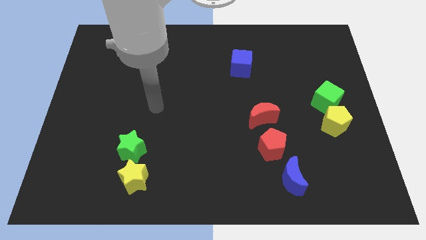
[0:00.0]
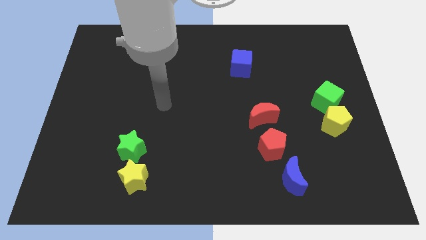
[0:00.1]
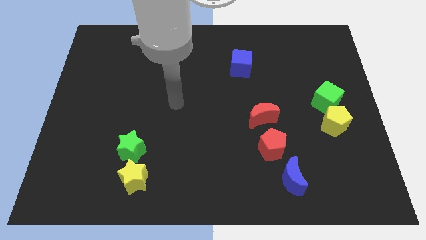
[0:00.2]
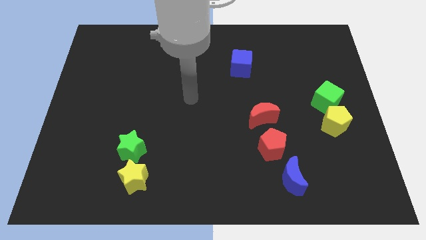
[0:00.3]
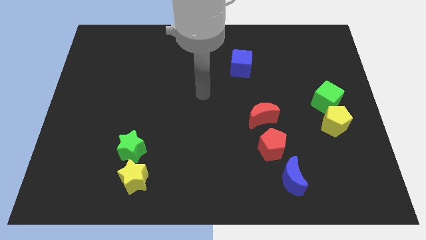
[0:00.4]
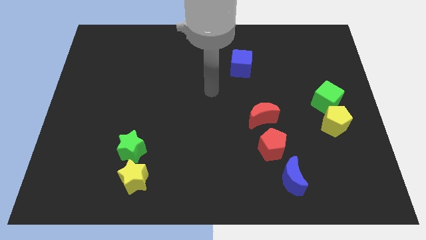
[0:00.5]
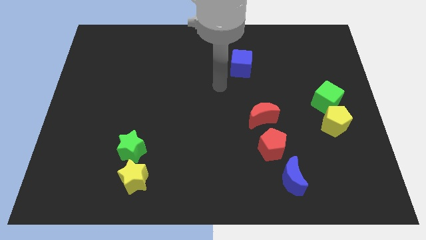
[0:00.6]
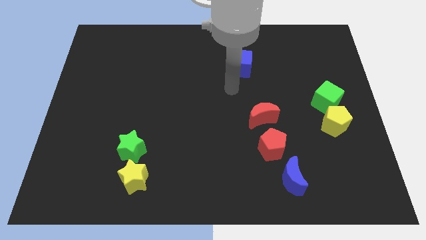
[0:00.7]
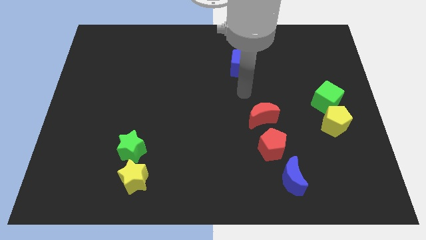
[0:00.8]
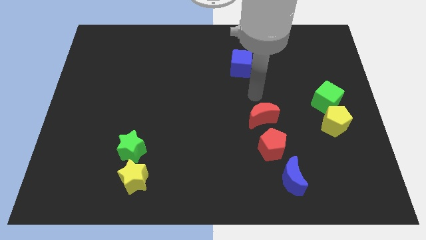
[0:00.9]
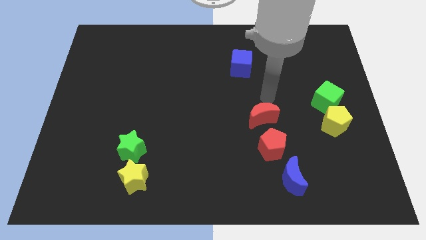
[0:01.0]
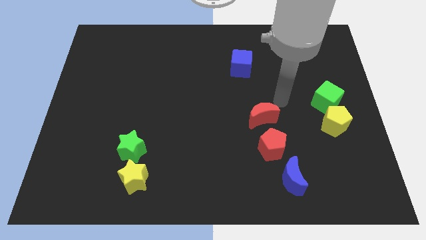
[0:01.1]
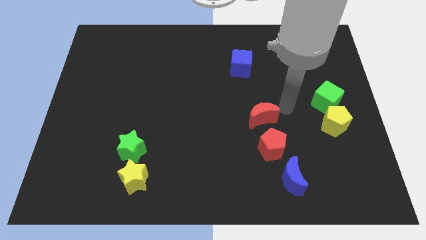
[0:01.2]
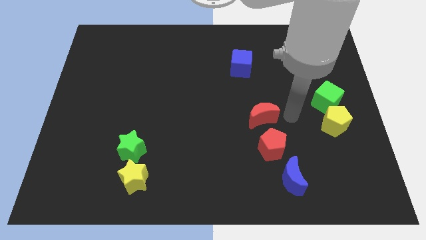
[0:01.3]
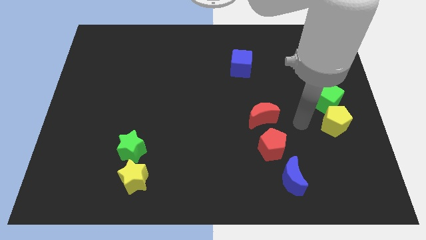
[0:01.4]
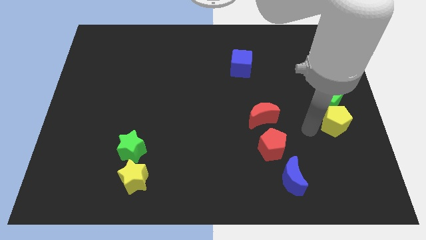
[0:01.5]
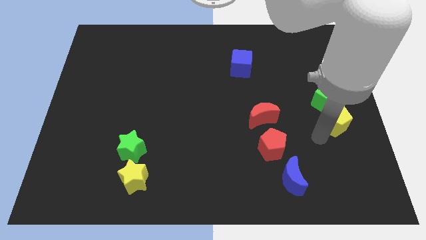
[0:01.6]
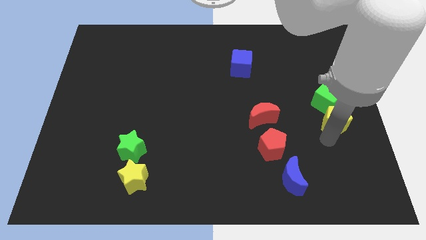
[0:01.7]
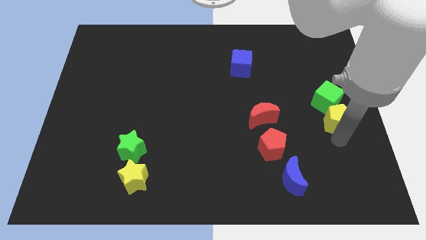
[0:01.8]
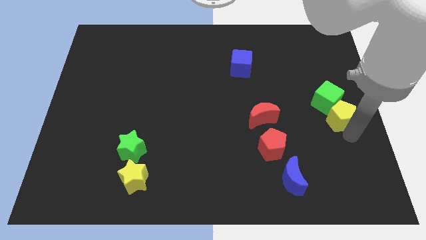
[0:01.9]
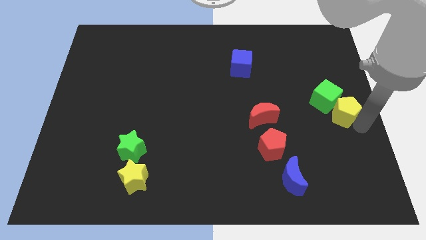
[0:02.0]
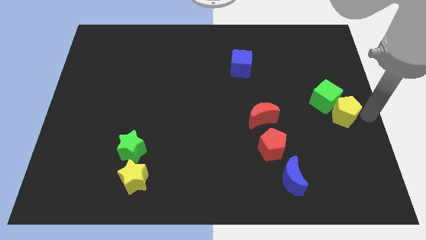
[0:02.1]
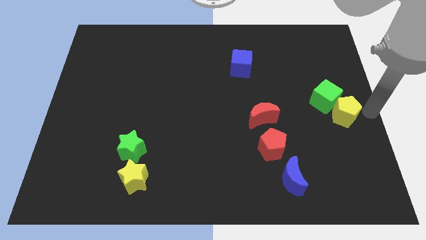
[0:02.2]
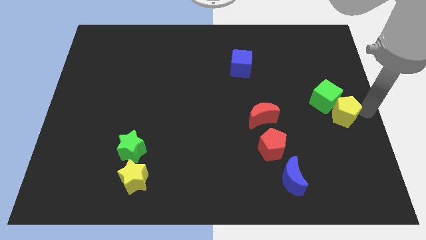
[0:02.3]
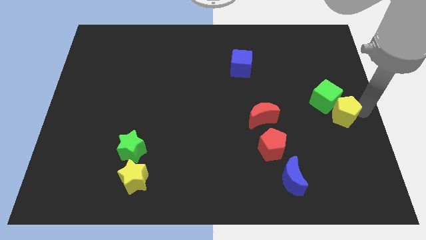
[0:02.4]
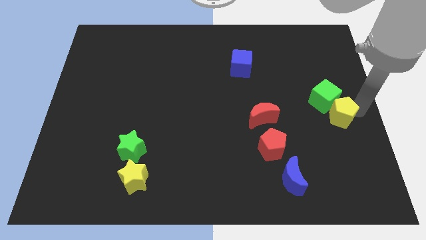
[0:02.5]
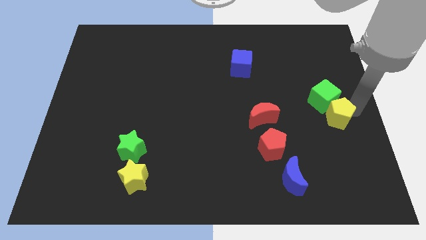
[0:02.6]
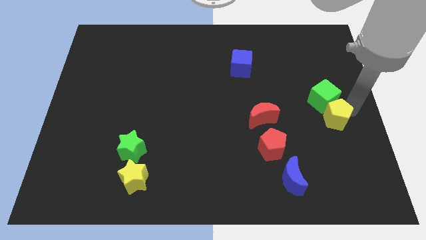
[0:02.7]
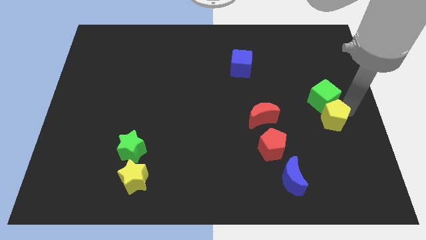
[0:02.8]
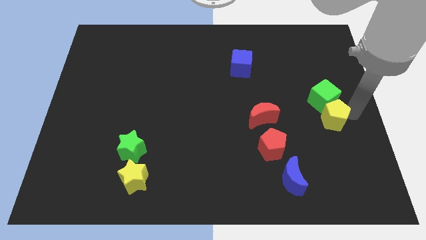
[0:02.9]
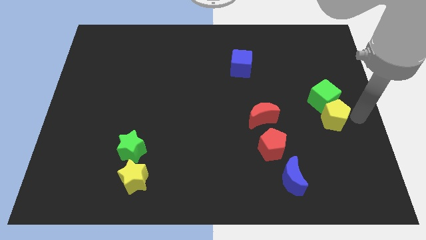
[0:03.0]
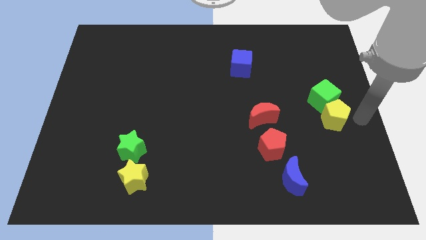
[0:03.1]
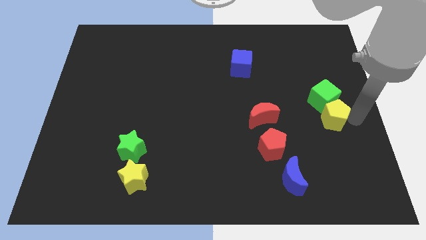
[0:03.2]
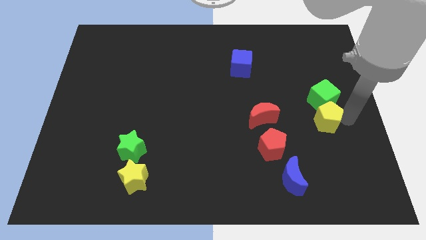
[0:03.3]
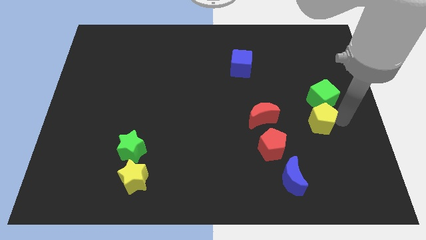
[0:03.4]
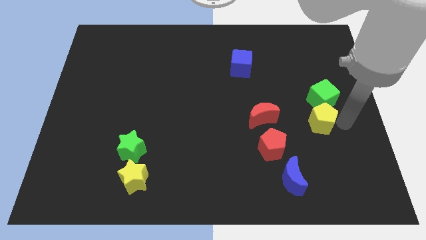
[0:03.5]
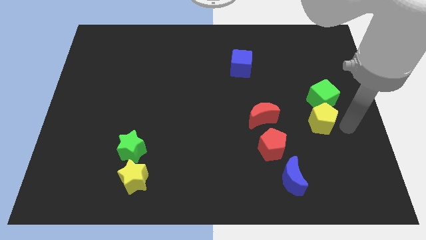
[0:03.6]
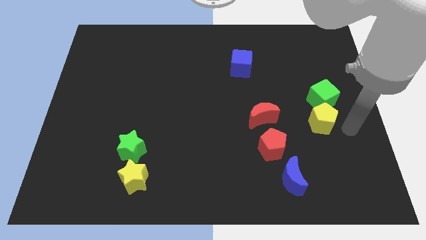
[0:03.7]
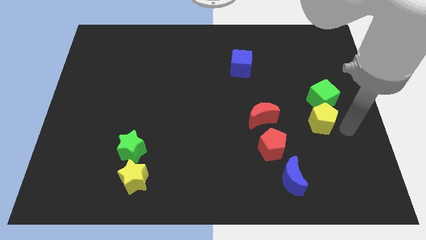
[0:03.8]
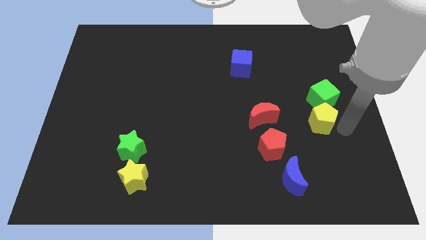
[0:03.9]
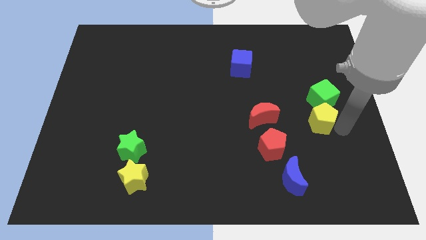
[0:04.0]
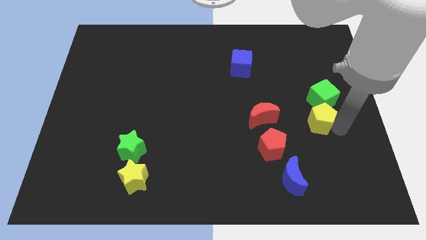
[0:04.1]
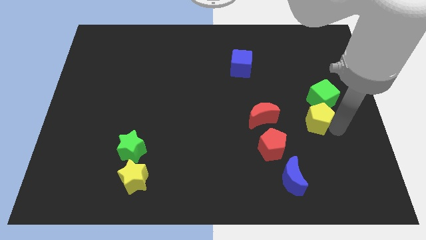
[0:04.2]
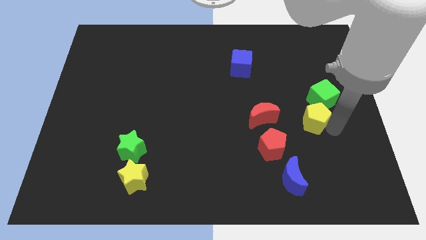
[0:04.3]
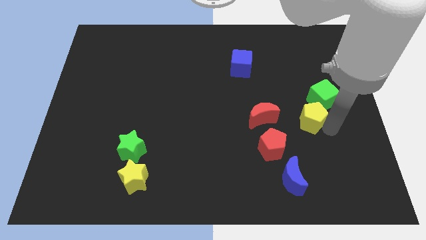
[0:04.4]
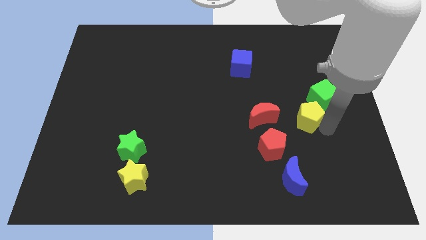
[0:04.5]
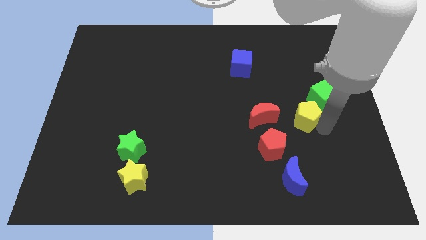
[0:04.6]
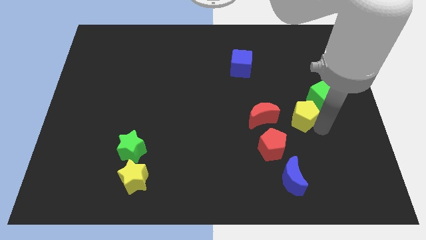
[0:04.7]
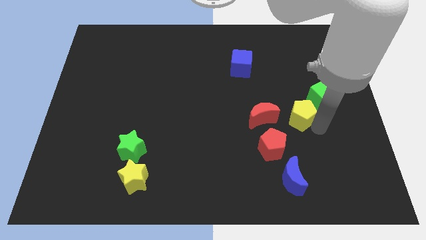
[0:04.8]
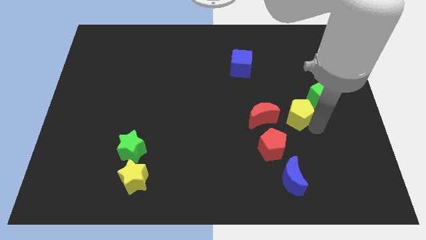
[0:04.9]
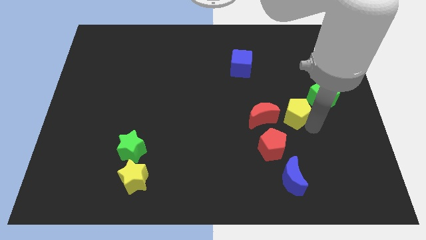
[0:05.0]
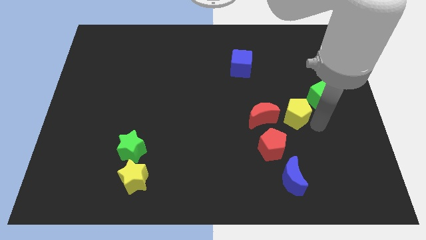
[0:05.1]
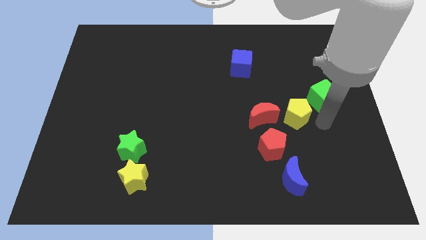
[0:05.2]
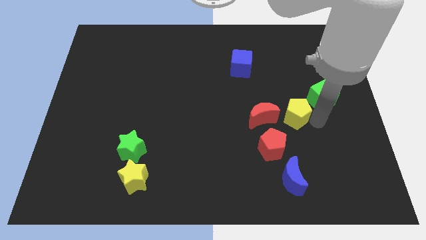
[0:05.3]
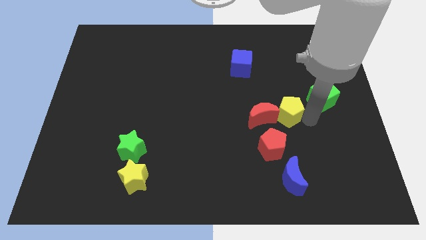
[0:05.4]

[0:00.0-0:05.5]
push the yellow pentagon to the top of the red pentagon

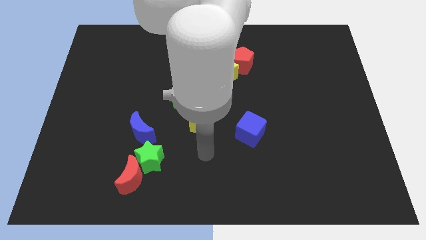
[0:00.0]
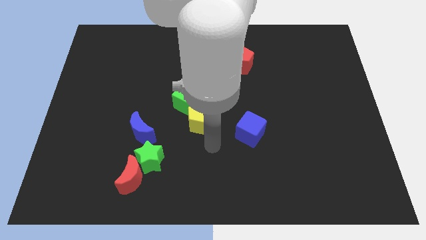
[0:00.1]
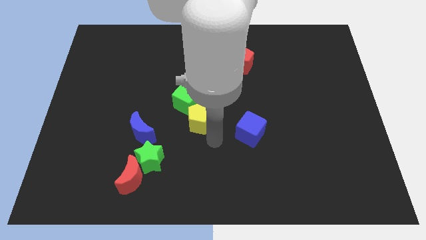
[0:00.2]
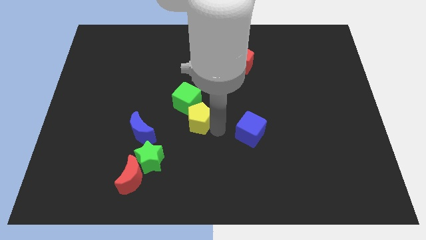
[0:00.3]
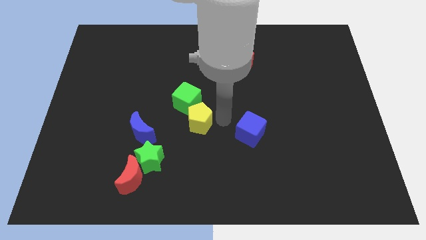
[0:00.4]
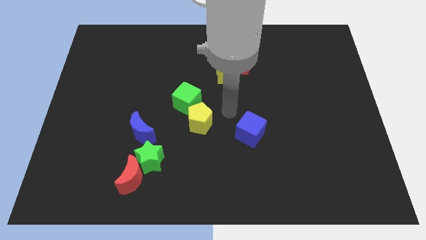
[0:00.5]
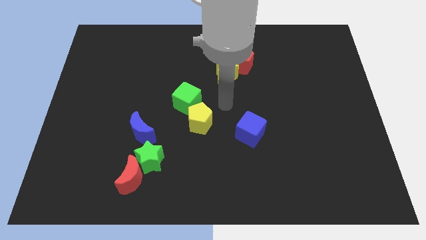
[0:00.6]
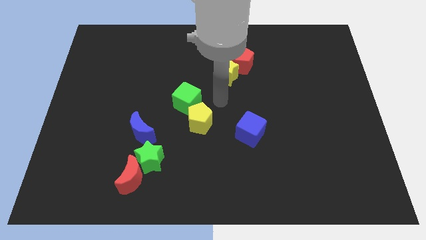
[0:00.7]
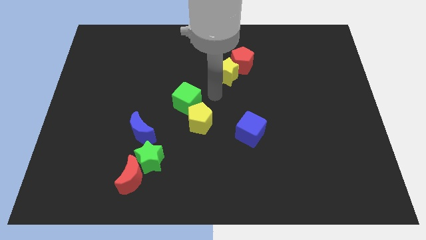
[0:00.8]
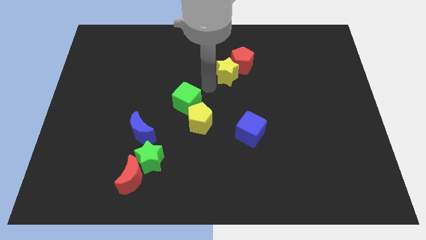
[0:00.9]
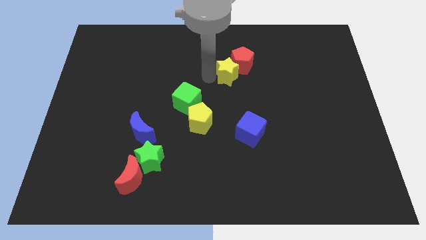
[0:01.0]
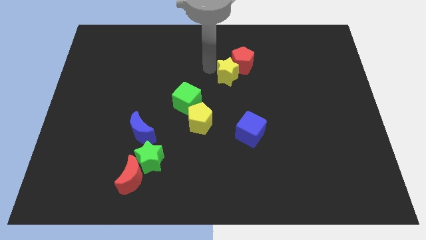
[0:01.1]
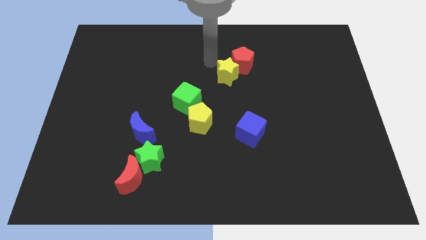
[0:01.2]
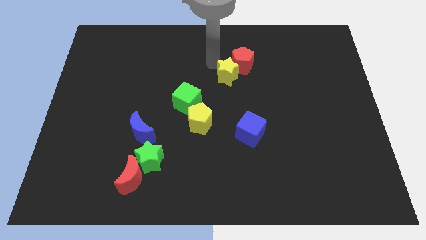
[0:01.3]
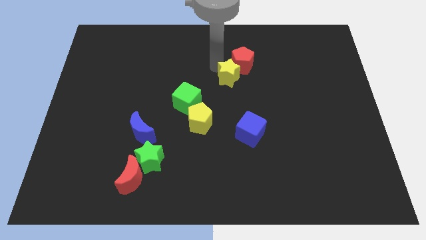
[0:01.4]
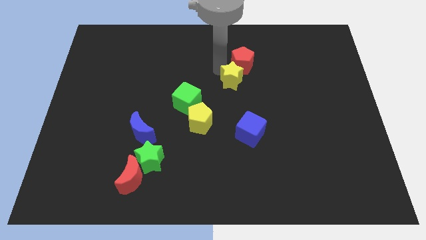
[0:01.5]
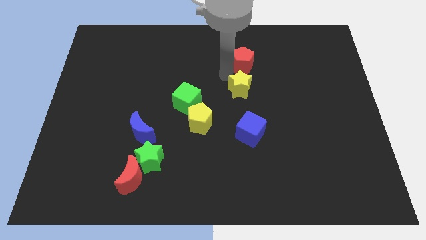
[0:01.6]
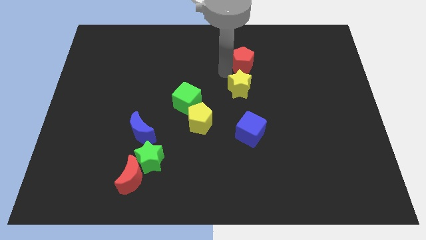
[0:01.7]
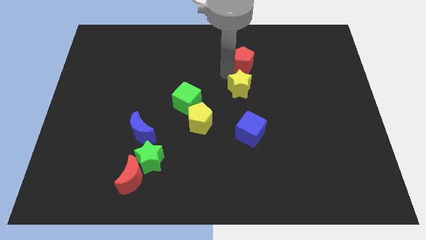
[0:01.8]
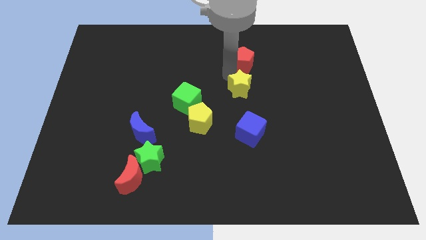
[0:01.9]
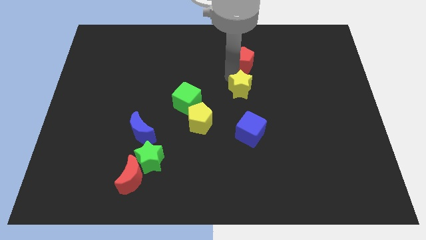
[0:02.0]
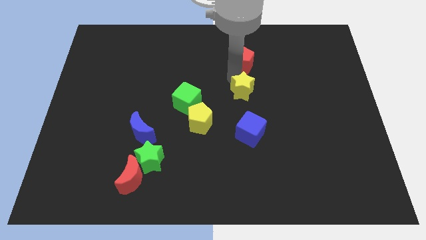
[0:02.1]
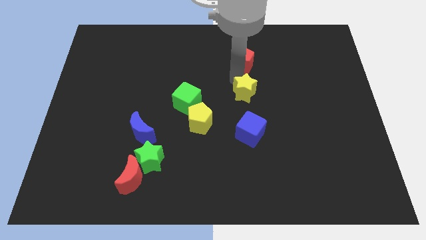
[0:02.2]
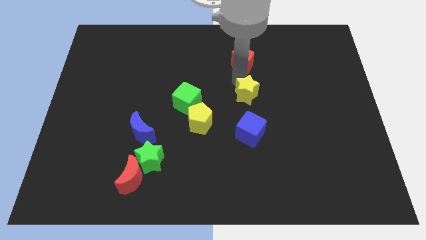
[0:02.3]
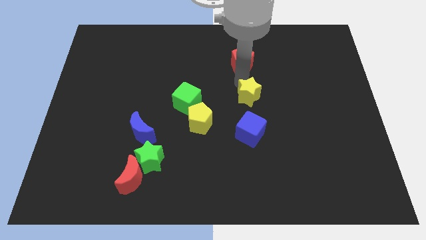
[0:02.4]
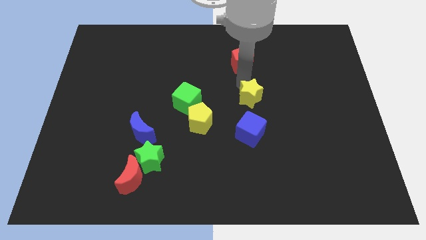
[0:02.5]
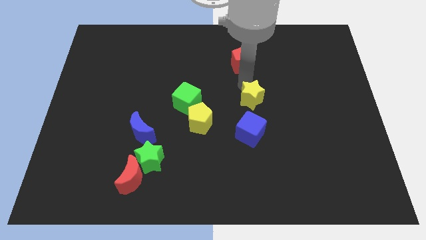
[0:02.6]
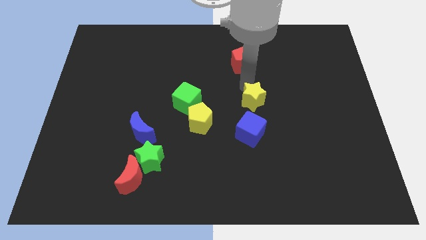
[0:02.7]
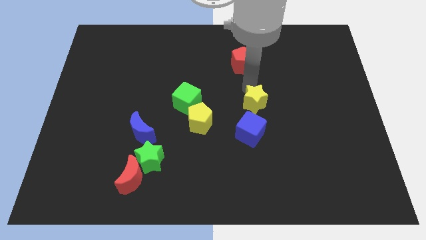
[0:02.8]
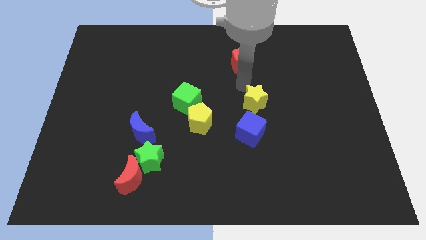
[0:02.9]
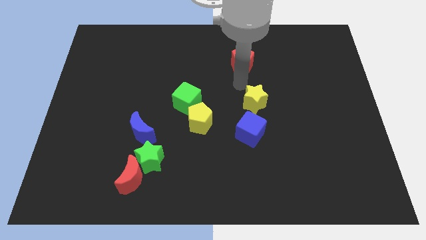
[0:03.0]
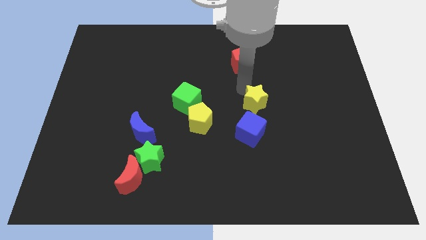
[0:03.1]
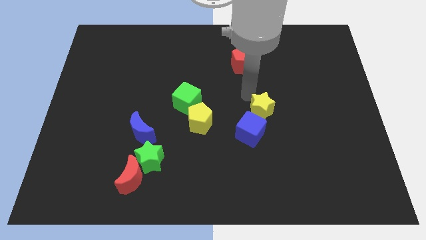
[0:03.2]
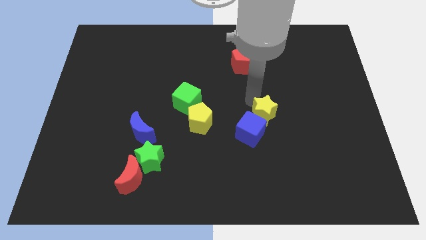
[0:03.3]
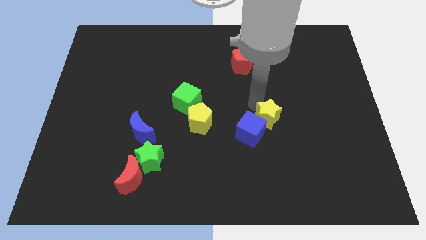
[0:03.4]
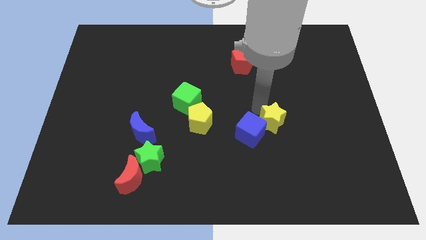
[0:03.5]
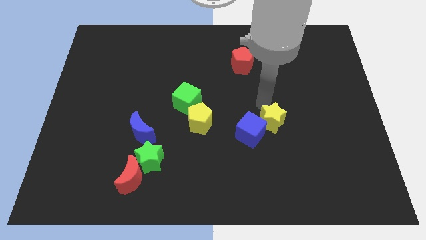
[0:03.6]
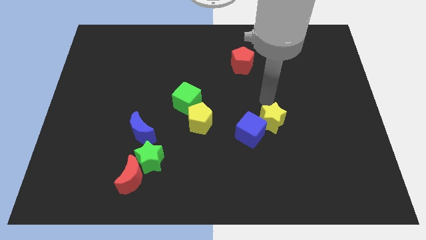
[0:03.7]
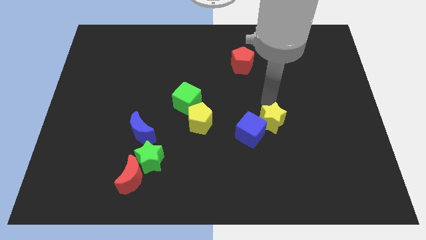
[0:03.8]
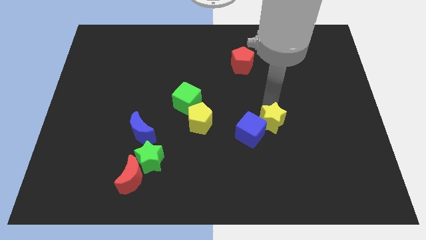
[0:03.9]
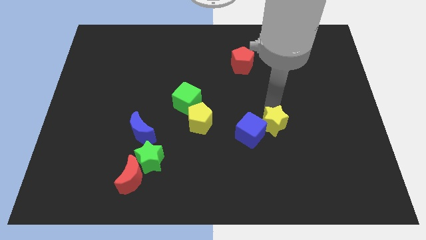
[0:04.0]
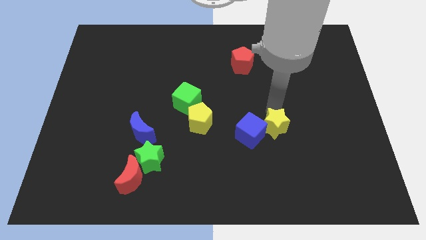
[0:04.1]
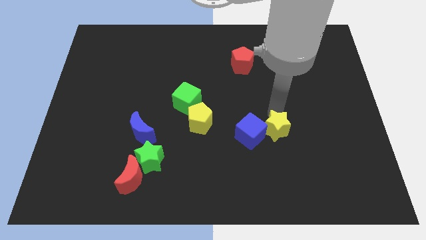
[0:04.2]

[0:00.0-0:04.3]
put the yellow star diagonally down and to the right of the blue cube
